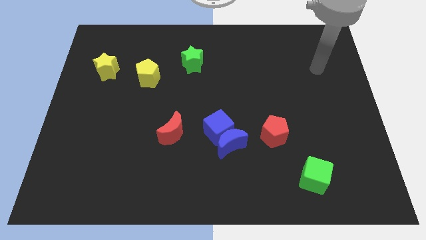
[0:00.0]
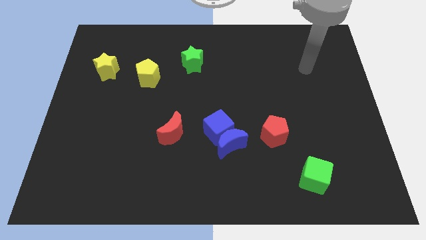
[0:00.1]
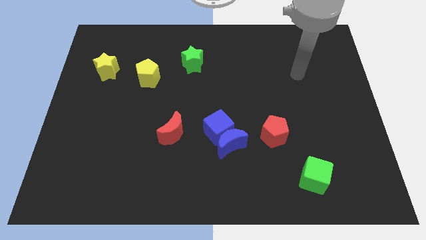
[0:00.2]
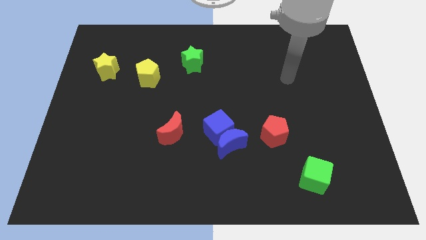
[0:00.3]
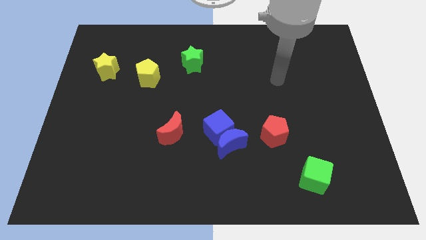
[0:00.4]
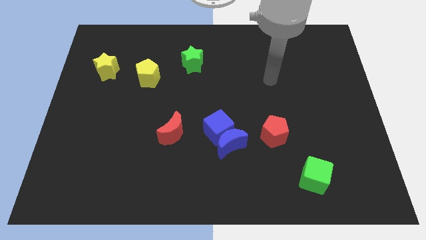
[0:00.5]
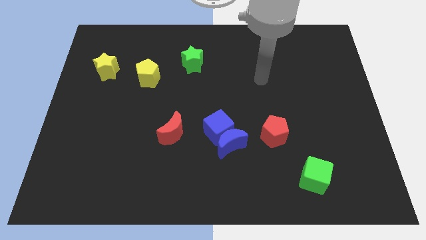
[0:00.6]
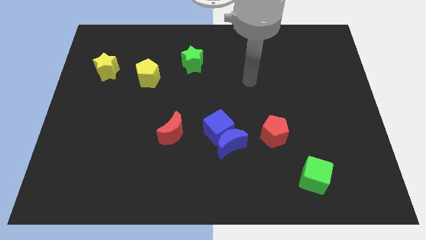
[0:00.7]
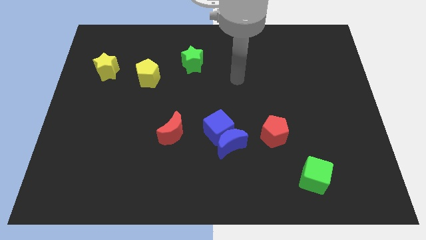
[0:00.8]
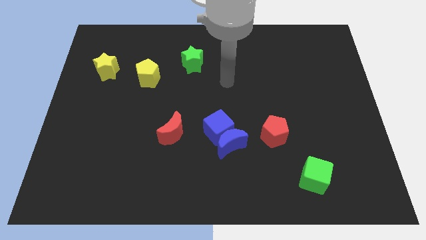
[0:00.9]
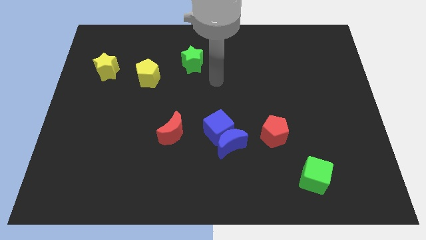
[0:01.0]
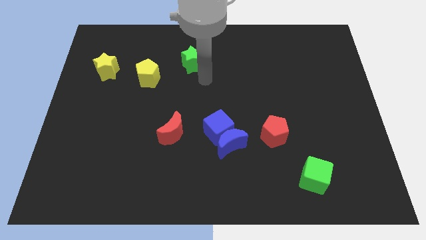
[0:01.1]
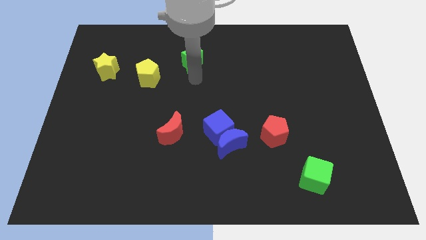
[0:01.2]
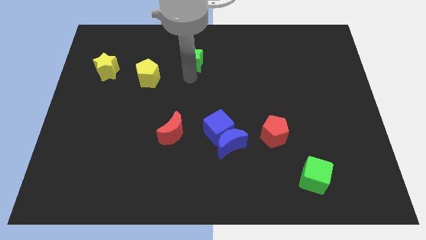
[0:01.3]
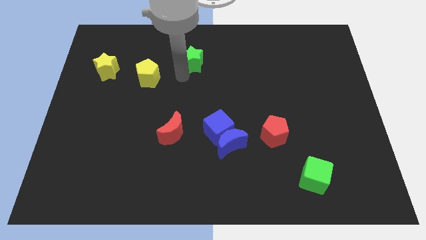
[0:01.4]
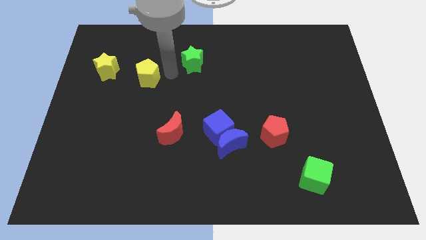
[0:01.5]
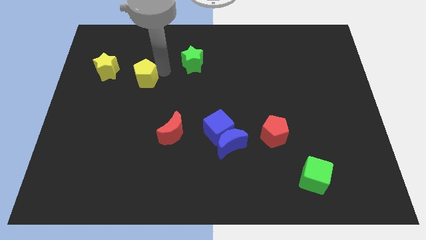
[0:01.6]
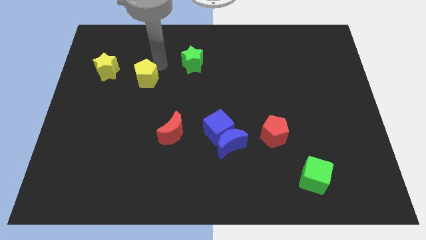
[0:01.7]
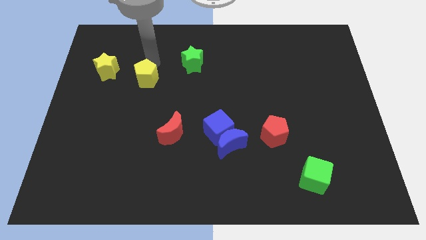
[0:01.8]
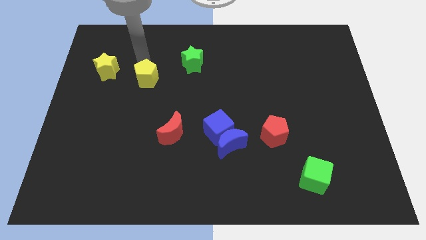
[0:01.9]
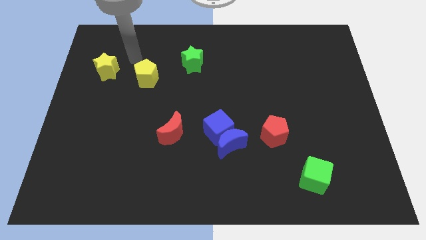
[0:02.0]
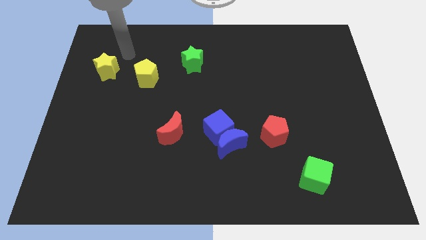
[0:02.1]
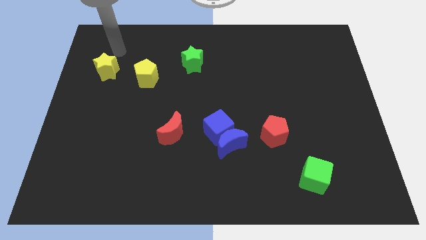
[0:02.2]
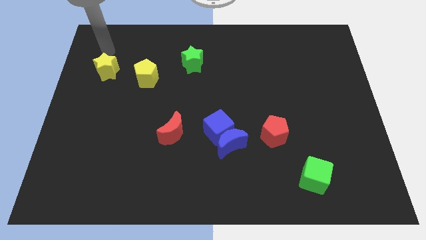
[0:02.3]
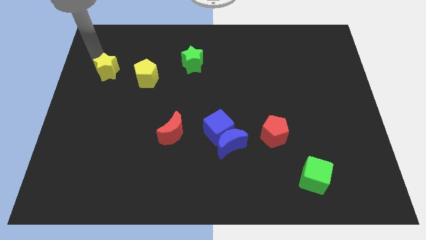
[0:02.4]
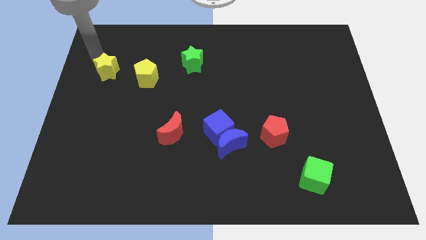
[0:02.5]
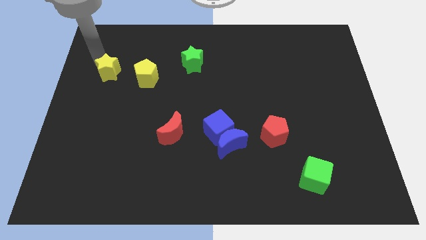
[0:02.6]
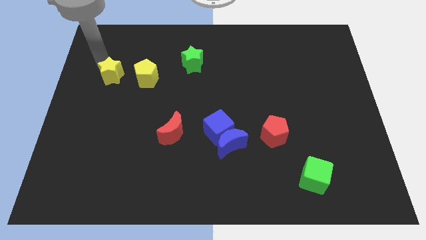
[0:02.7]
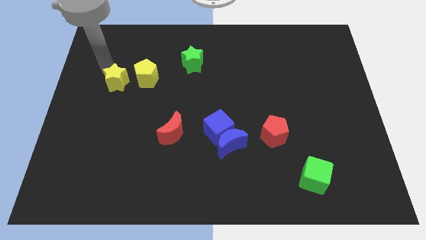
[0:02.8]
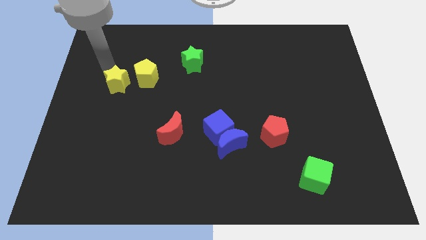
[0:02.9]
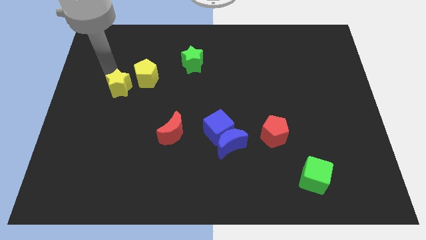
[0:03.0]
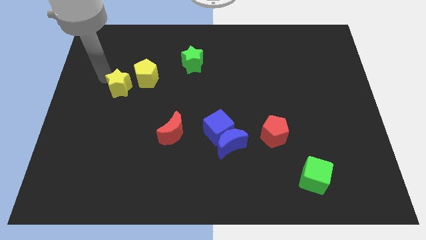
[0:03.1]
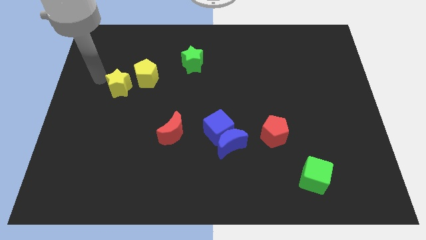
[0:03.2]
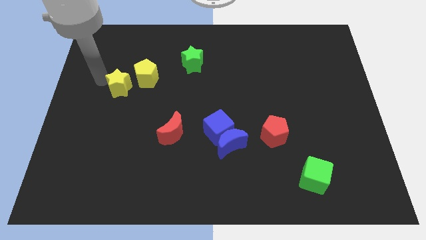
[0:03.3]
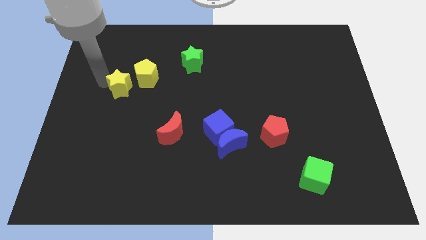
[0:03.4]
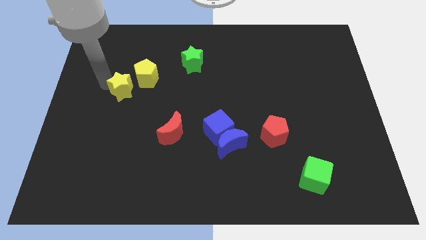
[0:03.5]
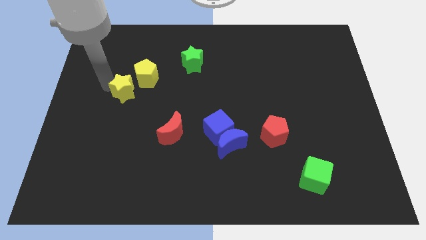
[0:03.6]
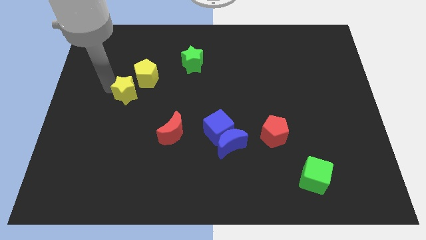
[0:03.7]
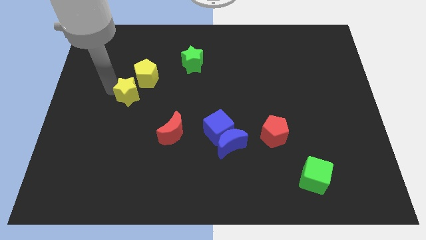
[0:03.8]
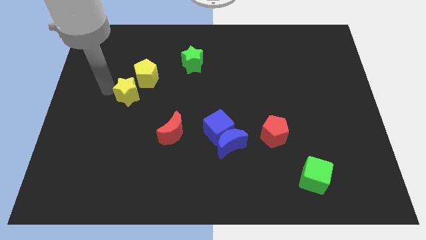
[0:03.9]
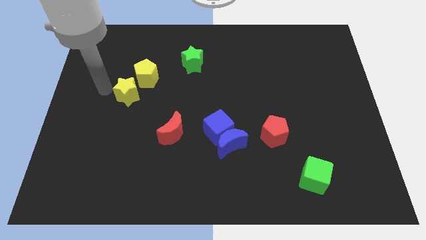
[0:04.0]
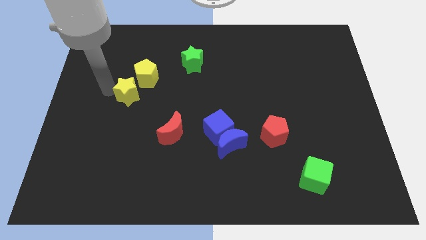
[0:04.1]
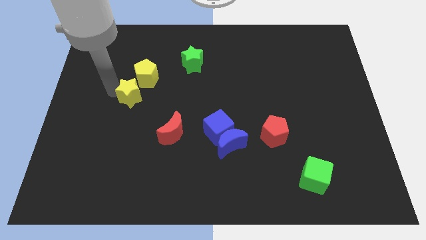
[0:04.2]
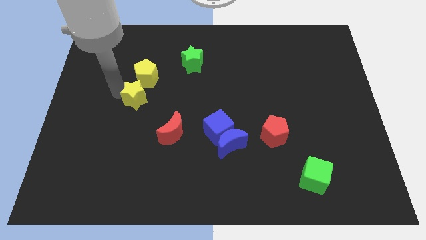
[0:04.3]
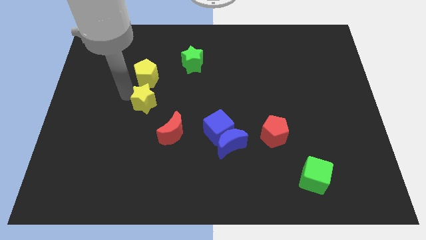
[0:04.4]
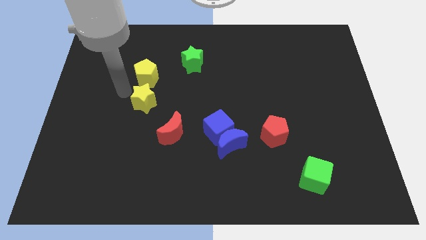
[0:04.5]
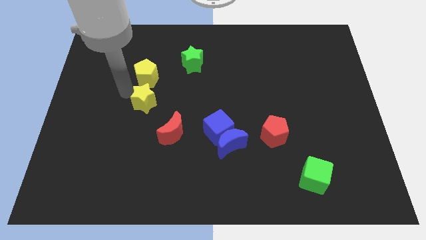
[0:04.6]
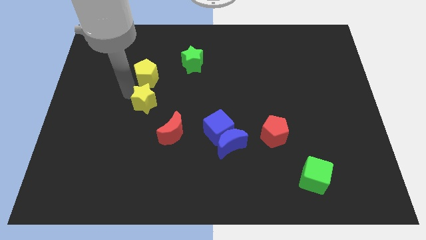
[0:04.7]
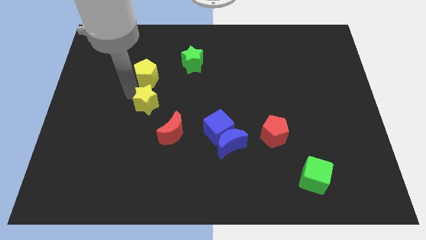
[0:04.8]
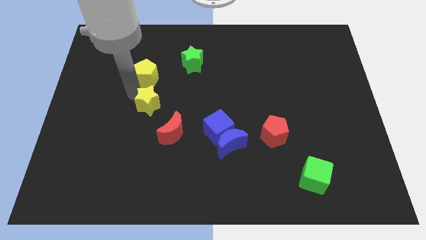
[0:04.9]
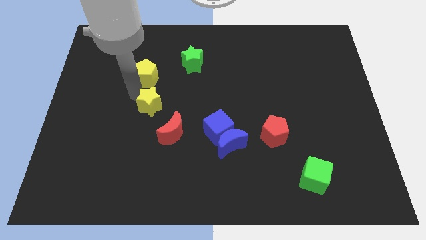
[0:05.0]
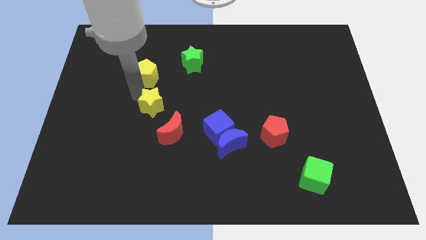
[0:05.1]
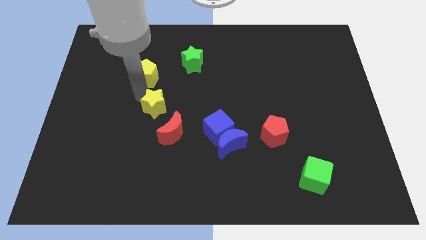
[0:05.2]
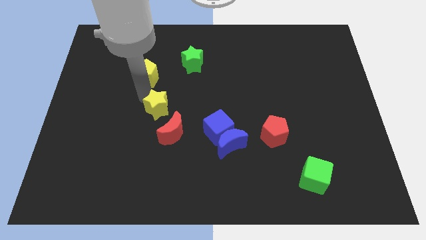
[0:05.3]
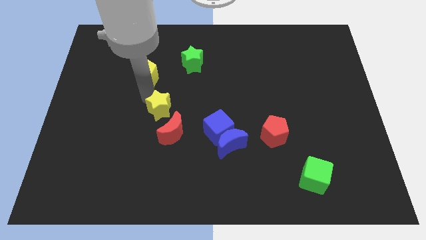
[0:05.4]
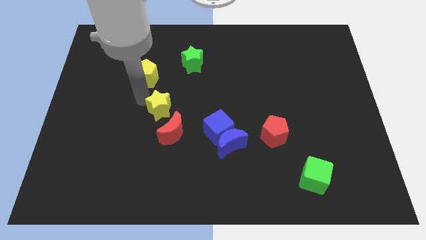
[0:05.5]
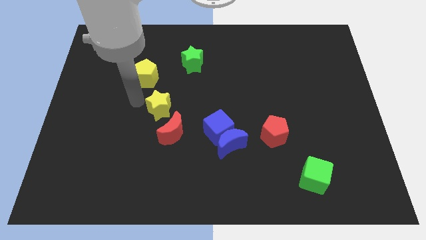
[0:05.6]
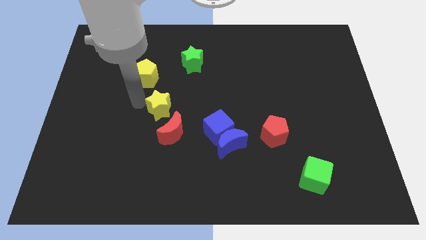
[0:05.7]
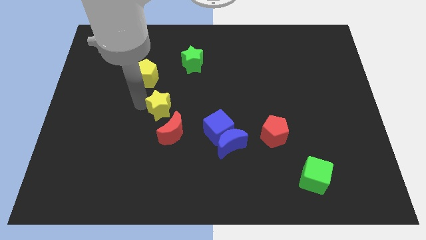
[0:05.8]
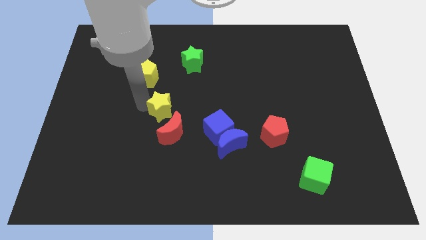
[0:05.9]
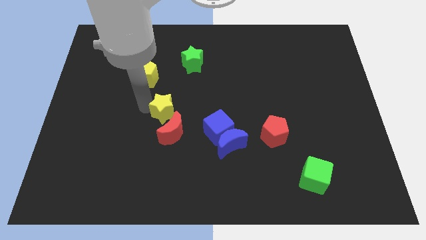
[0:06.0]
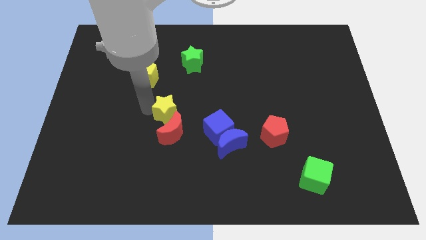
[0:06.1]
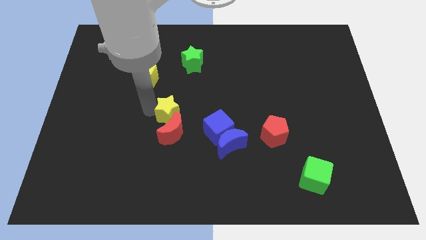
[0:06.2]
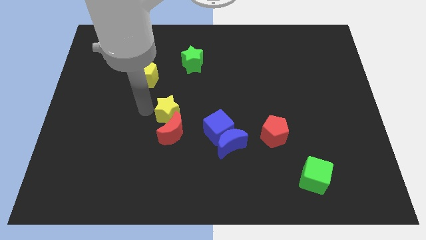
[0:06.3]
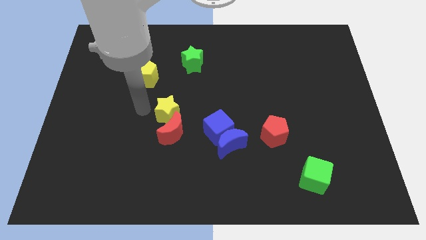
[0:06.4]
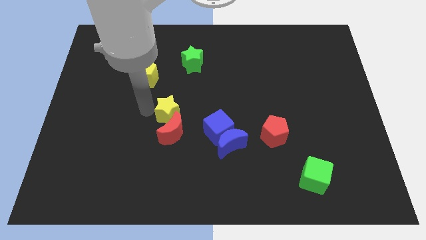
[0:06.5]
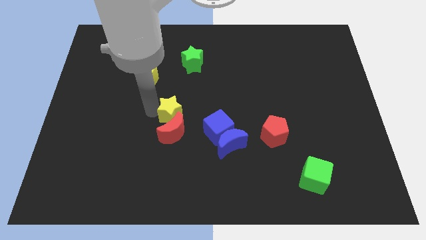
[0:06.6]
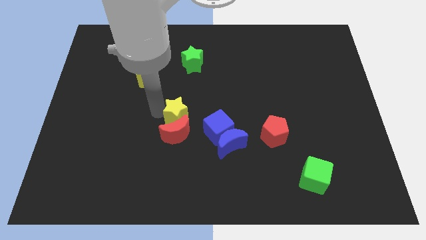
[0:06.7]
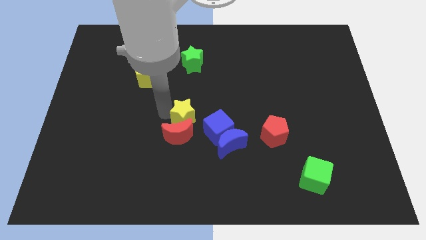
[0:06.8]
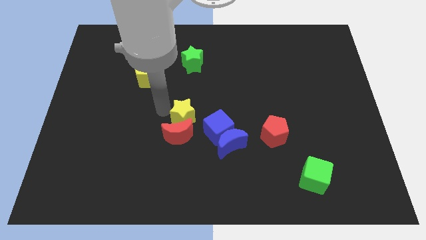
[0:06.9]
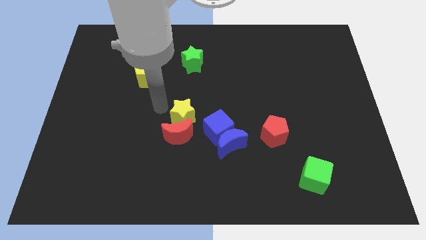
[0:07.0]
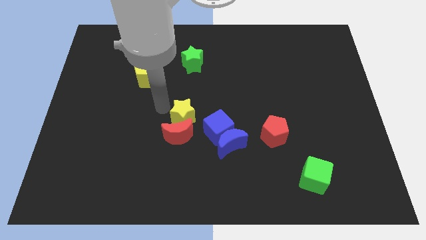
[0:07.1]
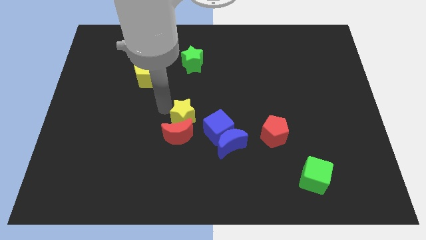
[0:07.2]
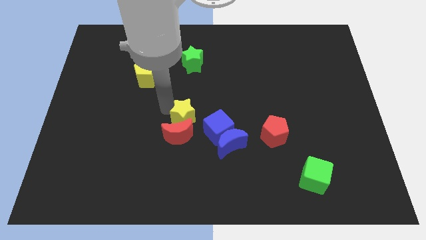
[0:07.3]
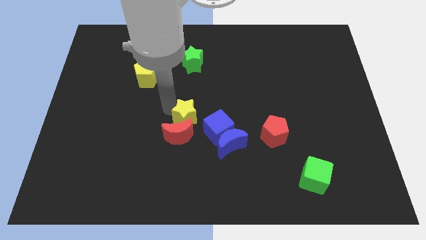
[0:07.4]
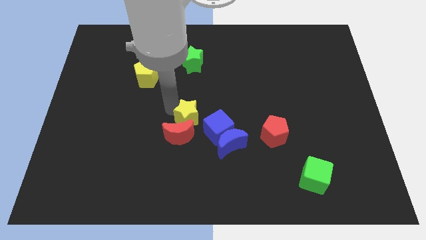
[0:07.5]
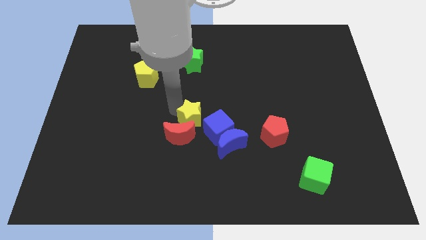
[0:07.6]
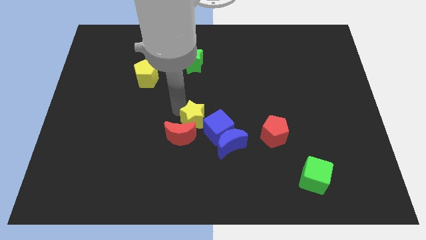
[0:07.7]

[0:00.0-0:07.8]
put the yellow star to the blue cube

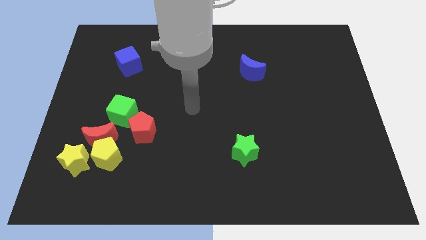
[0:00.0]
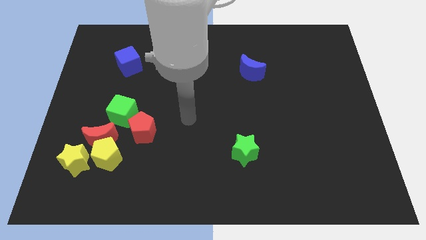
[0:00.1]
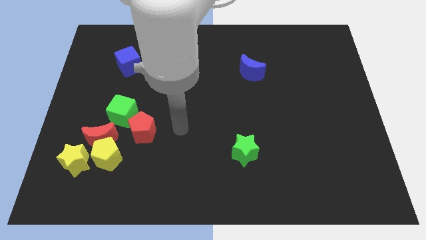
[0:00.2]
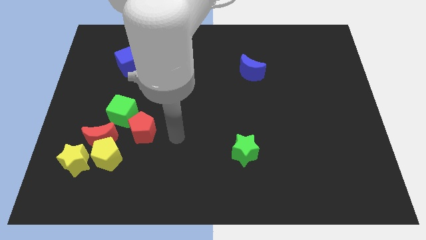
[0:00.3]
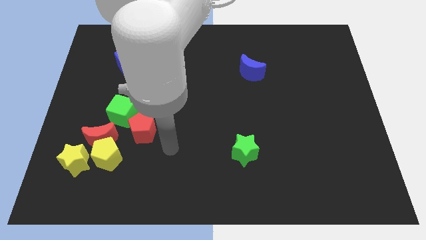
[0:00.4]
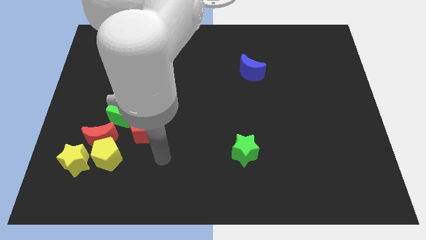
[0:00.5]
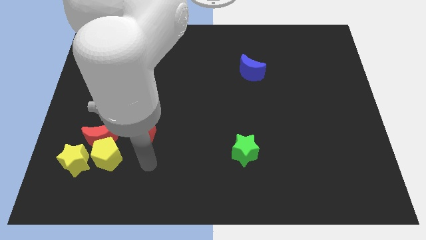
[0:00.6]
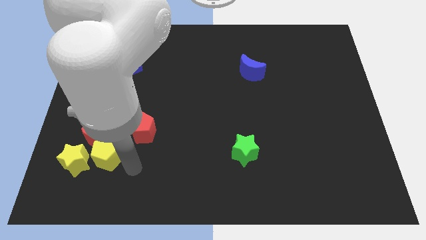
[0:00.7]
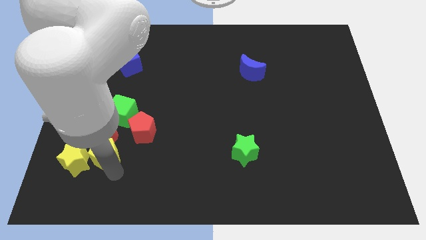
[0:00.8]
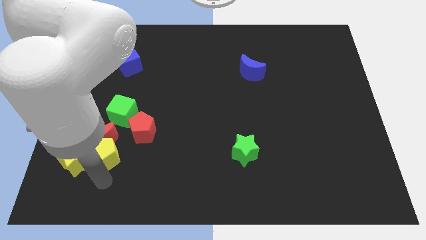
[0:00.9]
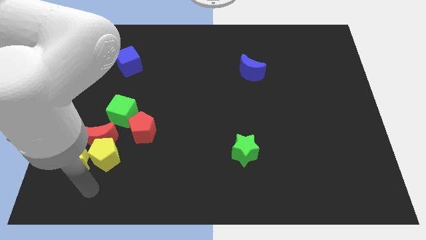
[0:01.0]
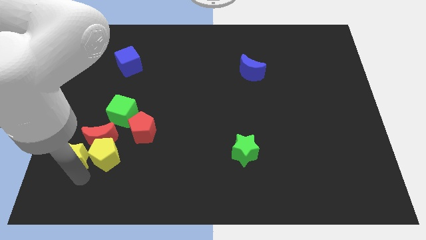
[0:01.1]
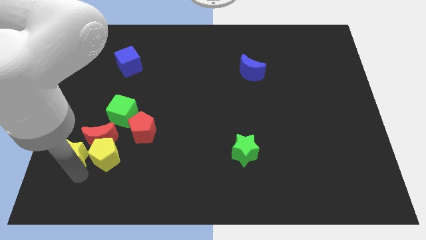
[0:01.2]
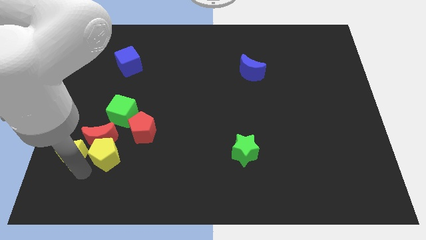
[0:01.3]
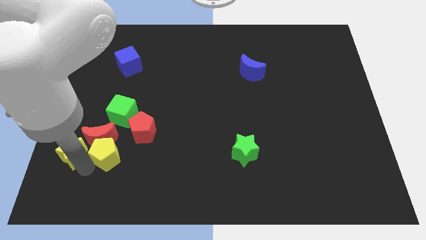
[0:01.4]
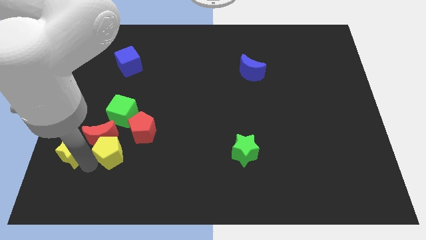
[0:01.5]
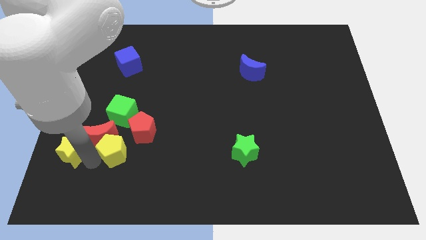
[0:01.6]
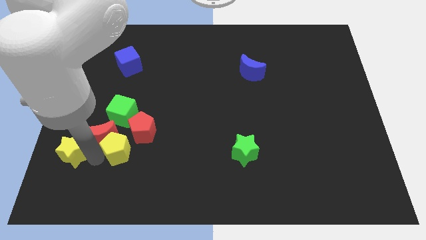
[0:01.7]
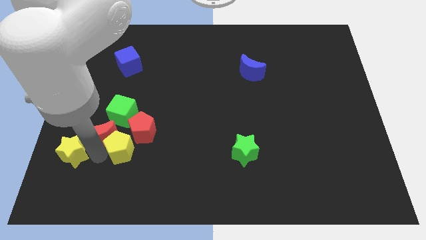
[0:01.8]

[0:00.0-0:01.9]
move the yellow pentagon towards the red pentagon
